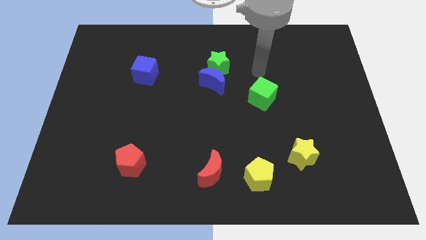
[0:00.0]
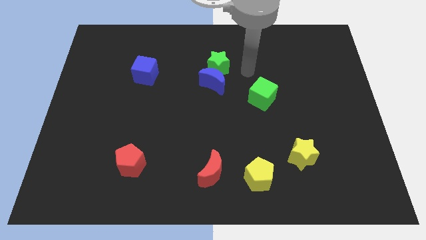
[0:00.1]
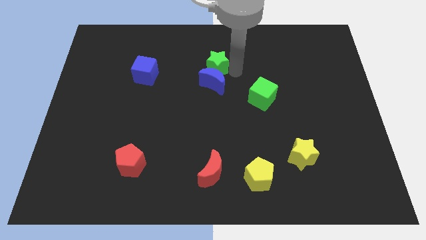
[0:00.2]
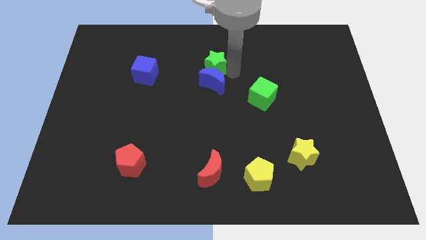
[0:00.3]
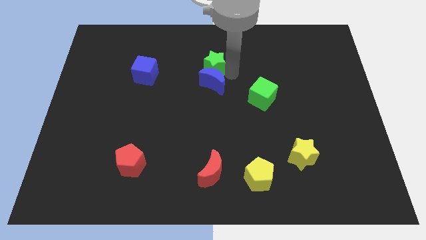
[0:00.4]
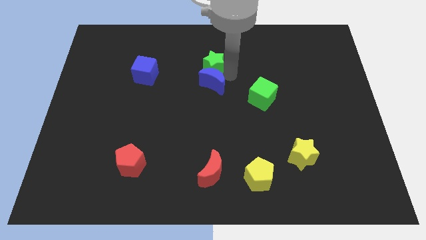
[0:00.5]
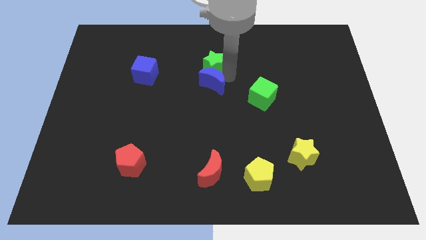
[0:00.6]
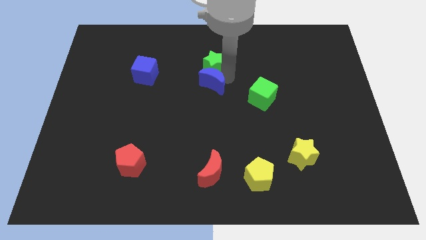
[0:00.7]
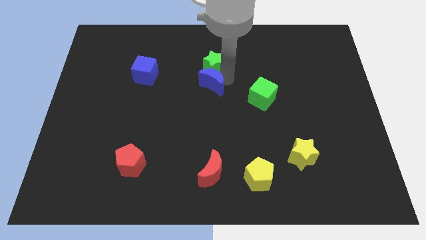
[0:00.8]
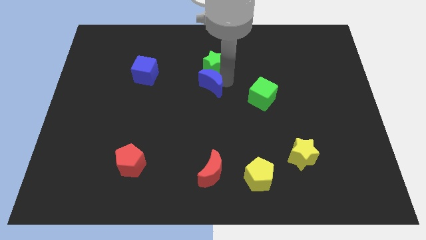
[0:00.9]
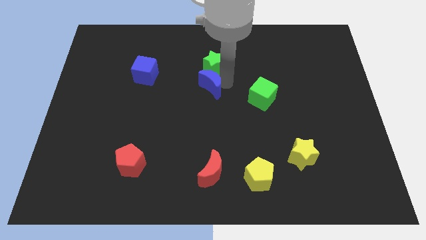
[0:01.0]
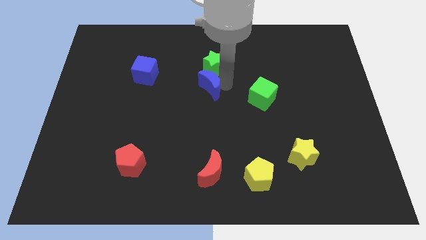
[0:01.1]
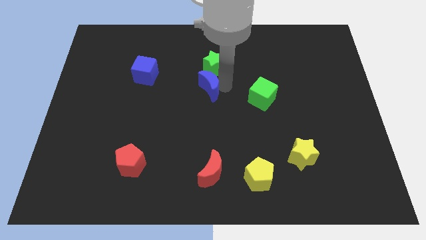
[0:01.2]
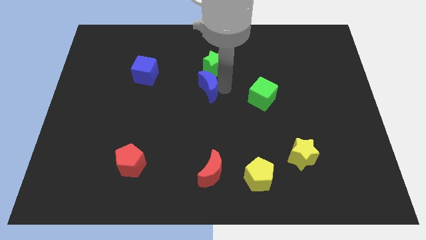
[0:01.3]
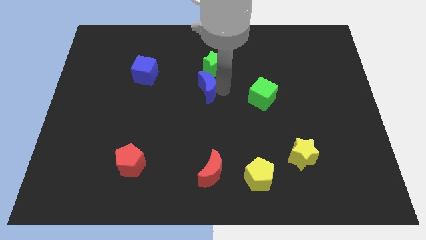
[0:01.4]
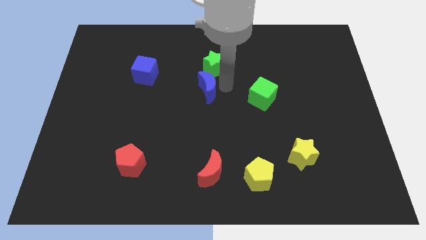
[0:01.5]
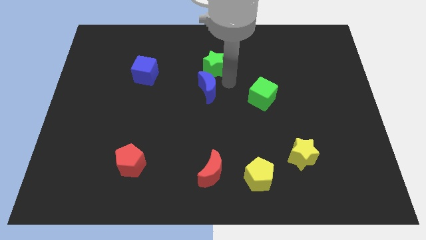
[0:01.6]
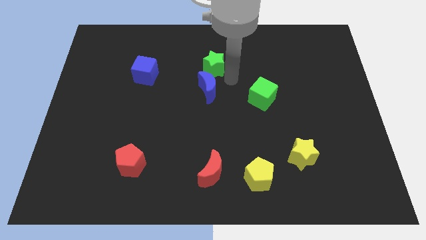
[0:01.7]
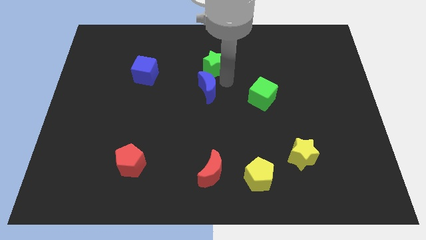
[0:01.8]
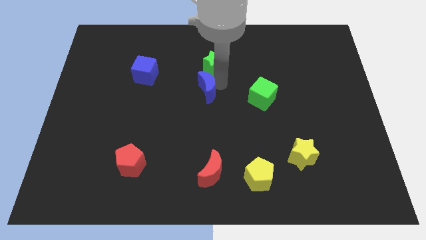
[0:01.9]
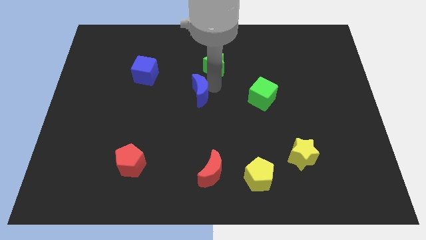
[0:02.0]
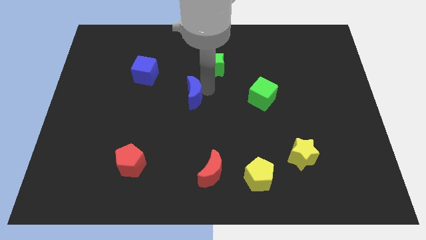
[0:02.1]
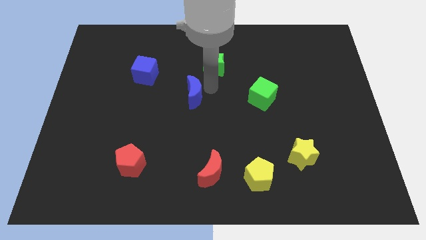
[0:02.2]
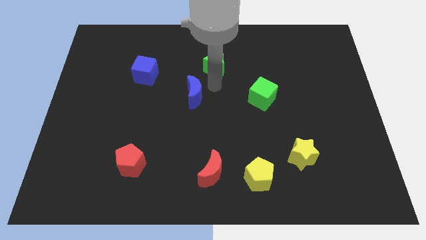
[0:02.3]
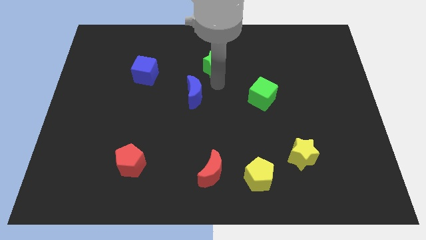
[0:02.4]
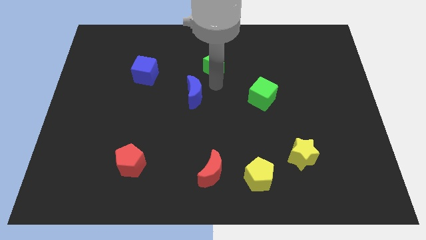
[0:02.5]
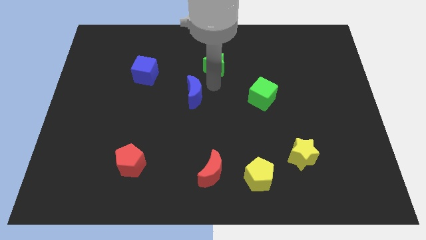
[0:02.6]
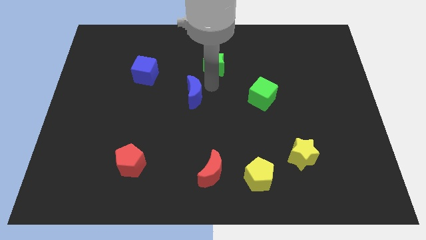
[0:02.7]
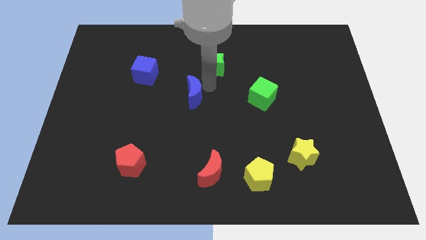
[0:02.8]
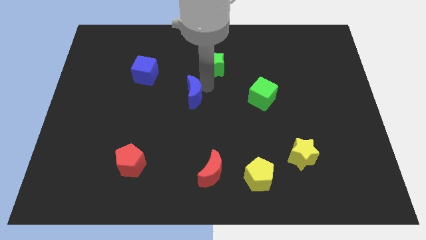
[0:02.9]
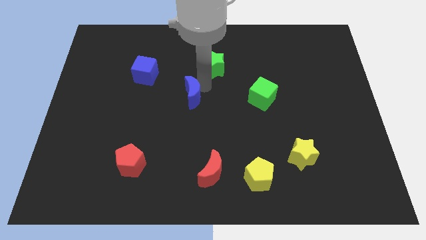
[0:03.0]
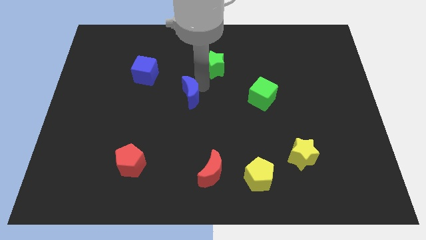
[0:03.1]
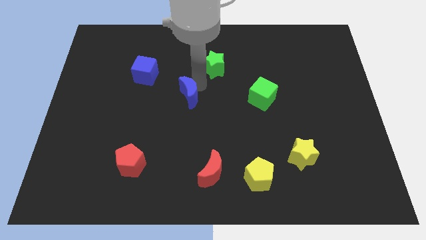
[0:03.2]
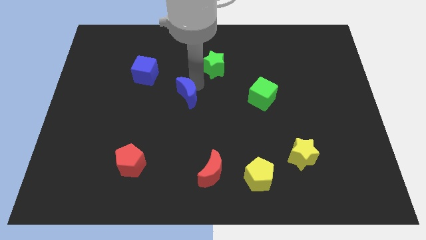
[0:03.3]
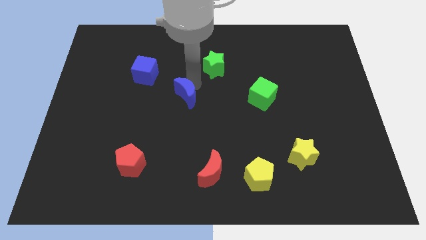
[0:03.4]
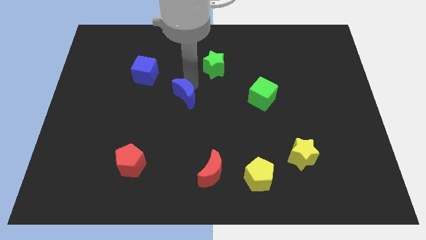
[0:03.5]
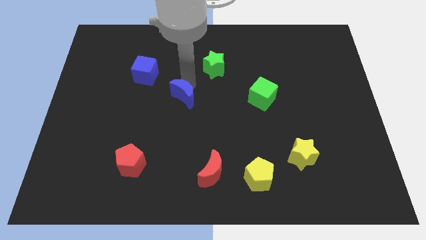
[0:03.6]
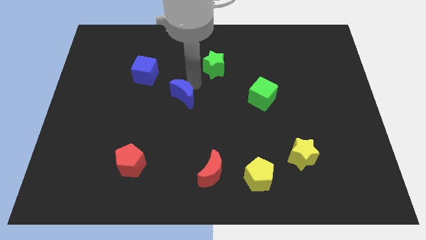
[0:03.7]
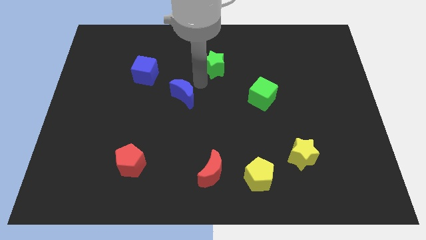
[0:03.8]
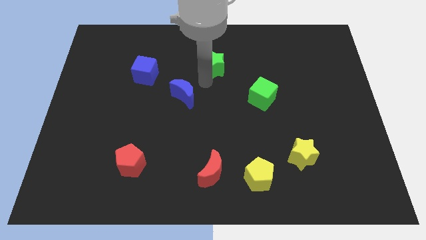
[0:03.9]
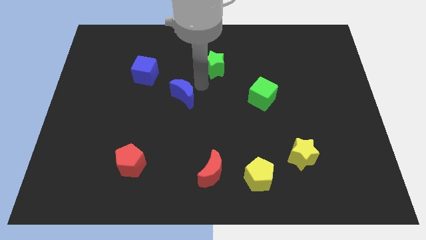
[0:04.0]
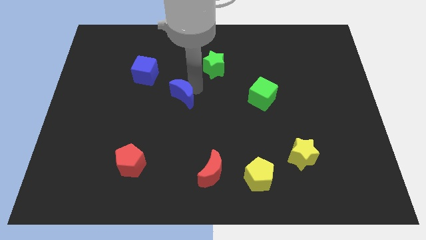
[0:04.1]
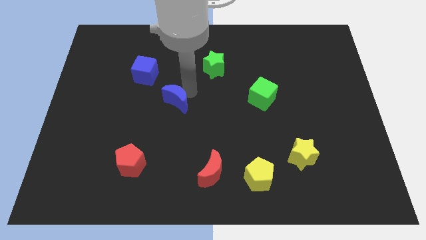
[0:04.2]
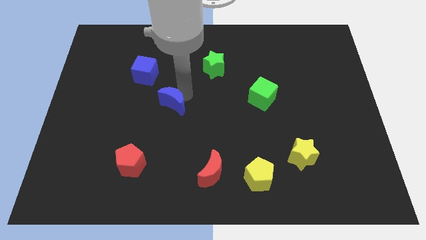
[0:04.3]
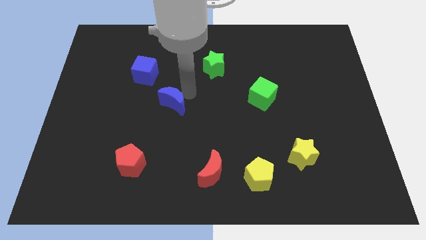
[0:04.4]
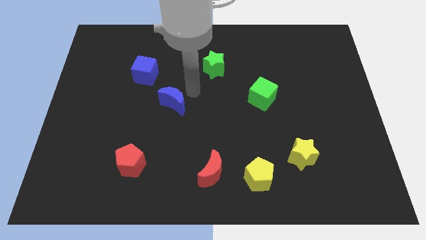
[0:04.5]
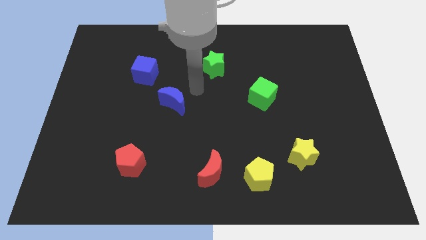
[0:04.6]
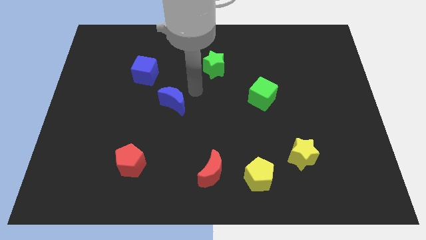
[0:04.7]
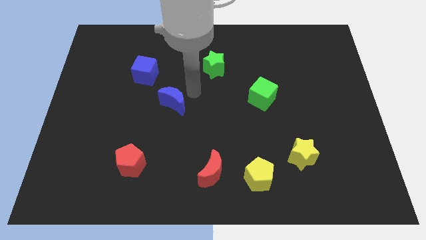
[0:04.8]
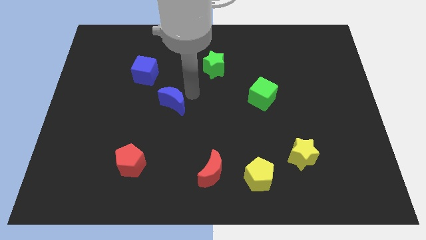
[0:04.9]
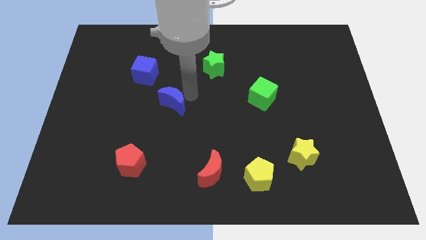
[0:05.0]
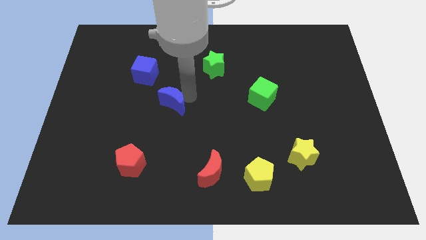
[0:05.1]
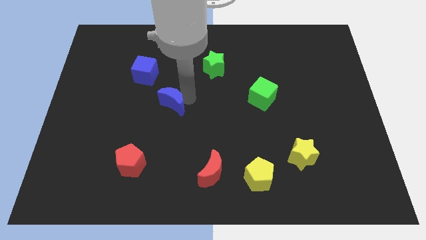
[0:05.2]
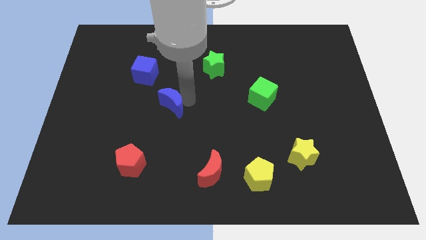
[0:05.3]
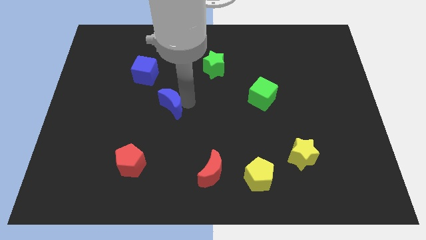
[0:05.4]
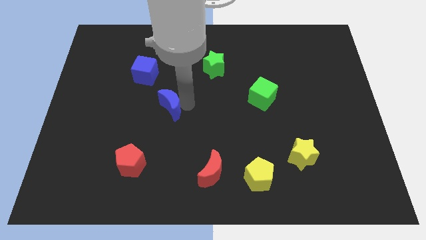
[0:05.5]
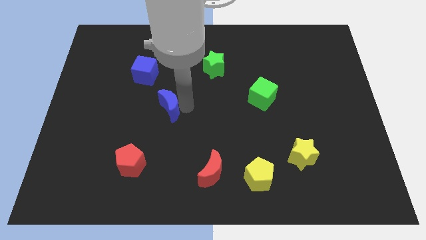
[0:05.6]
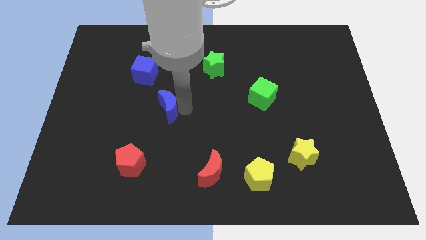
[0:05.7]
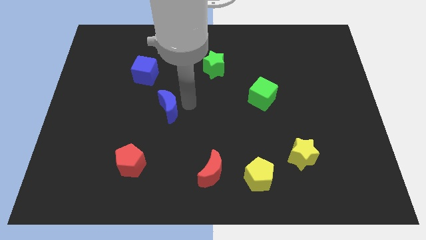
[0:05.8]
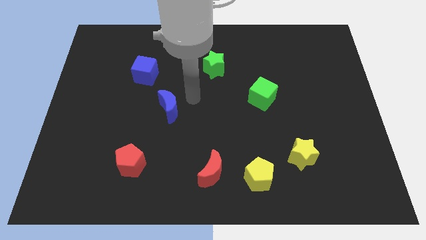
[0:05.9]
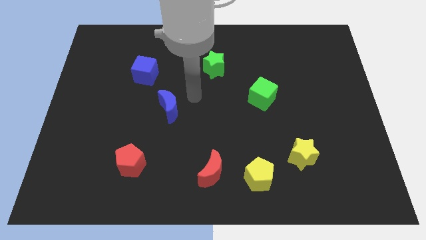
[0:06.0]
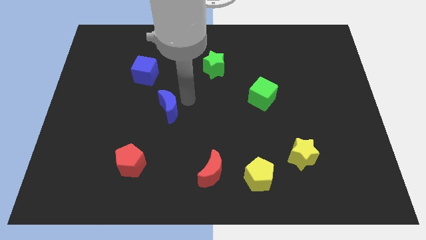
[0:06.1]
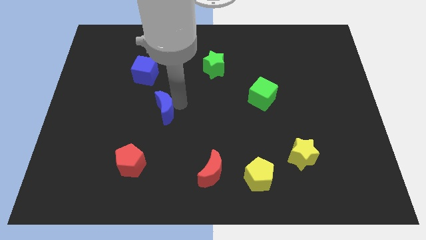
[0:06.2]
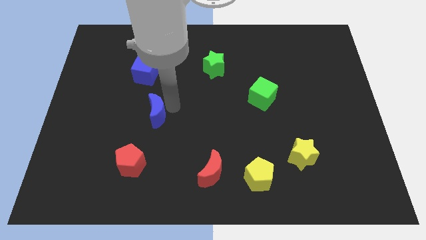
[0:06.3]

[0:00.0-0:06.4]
slide the blue moon above the red pentagon

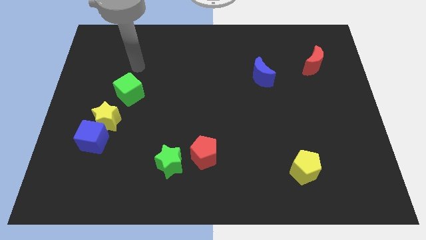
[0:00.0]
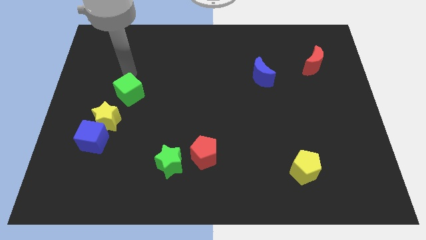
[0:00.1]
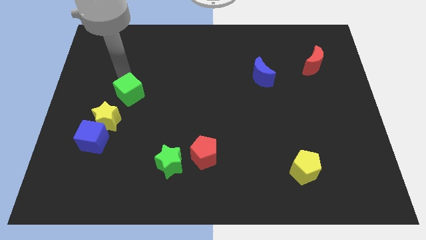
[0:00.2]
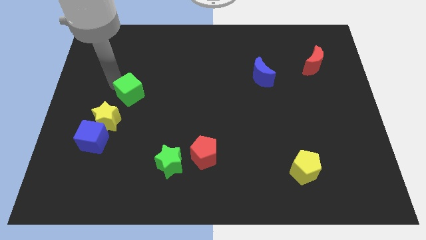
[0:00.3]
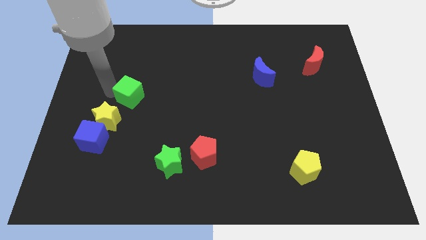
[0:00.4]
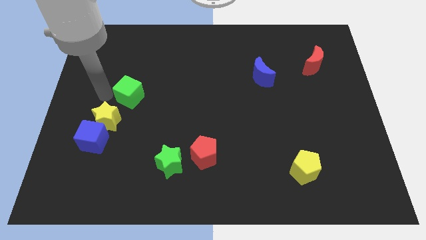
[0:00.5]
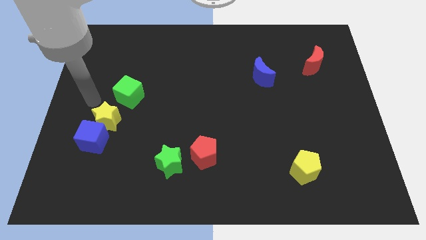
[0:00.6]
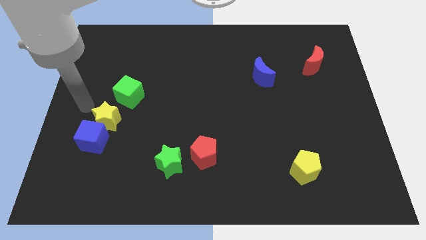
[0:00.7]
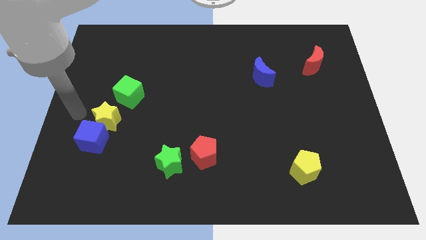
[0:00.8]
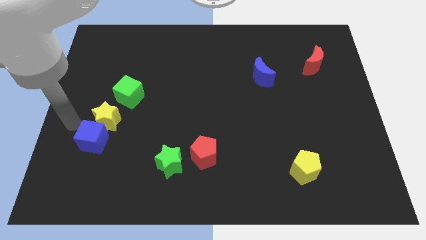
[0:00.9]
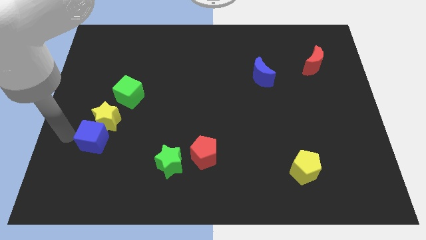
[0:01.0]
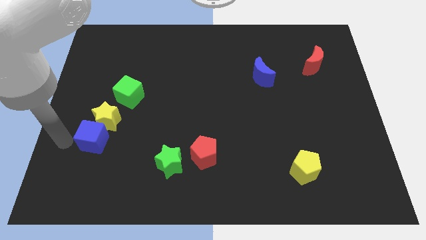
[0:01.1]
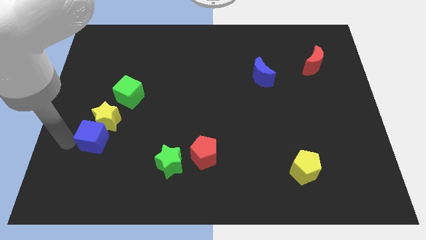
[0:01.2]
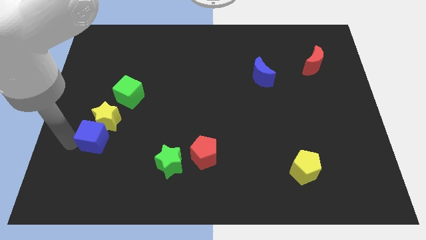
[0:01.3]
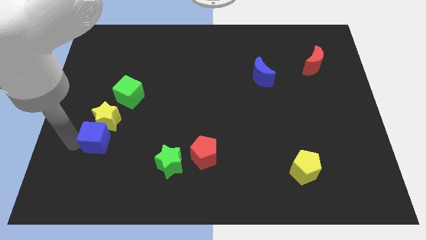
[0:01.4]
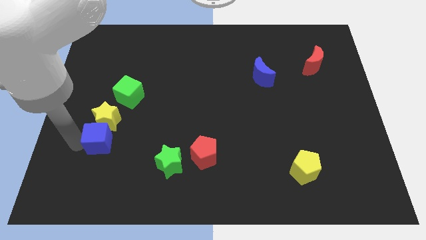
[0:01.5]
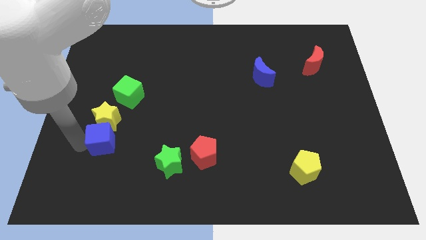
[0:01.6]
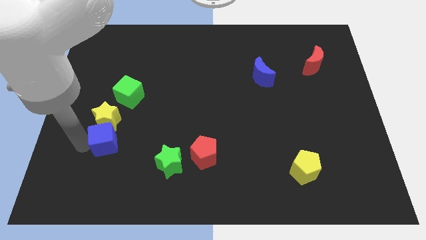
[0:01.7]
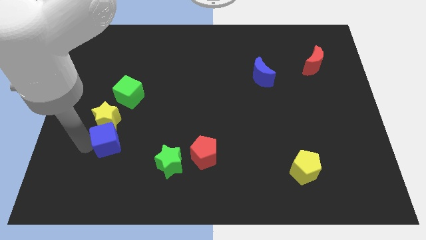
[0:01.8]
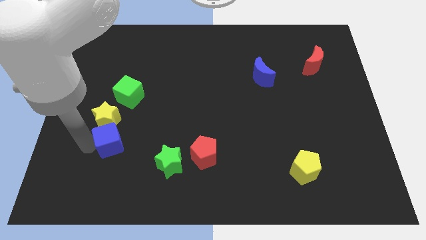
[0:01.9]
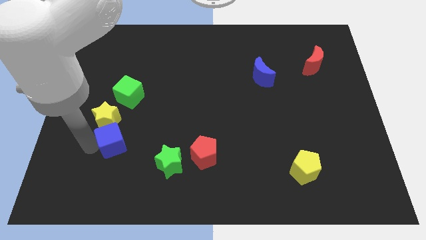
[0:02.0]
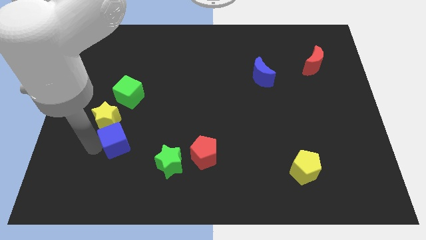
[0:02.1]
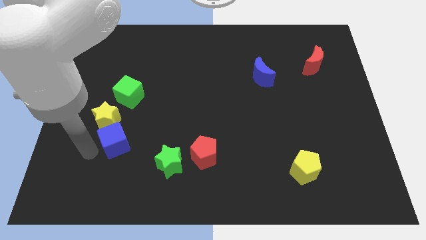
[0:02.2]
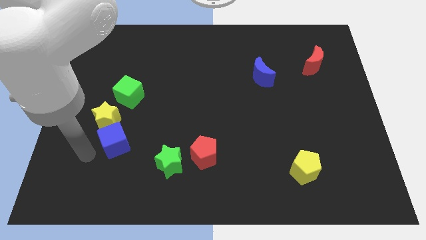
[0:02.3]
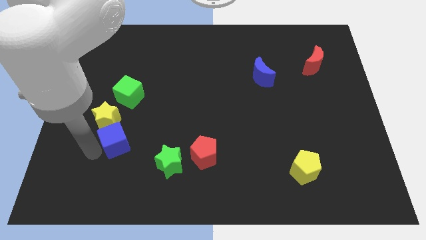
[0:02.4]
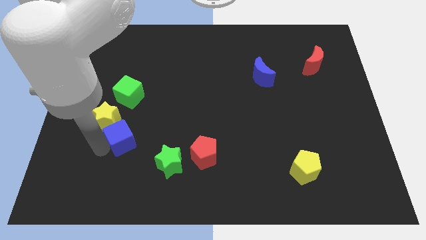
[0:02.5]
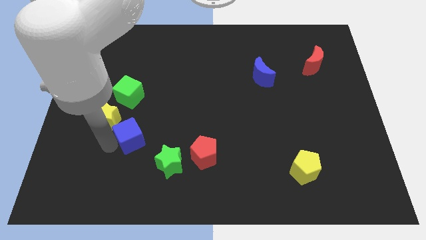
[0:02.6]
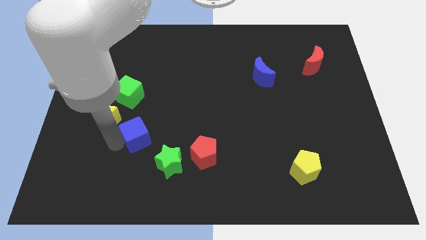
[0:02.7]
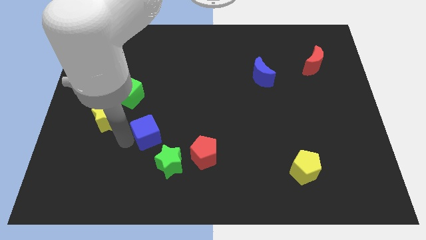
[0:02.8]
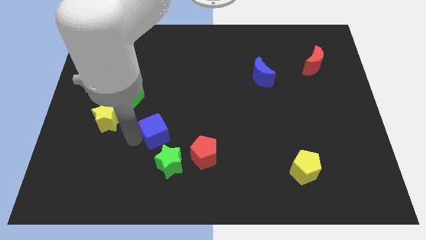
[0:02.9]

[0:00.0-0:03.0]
push the blue cube to the top of the green star
